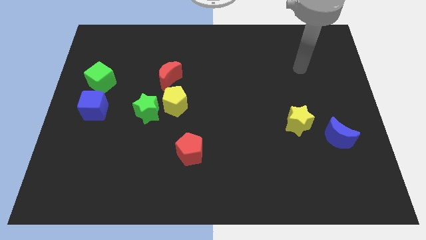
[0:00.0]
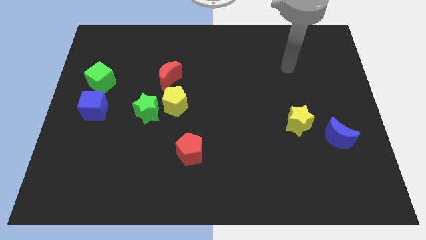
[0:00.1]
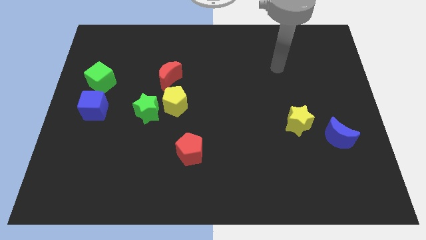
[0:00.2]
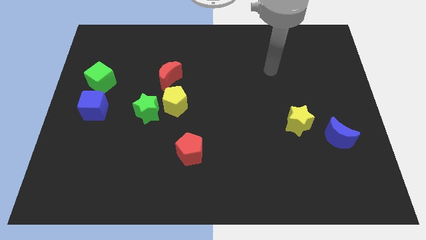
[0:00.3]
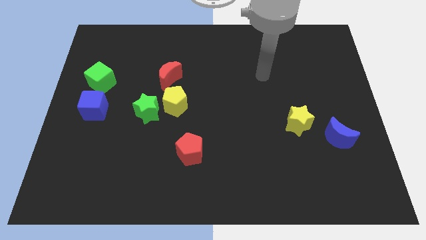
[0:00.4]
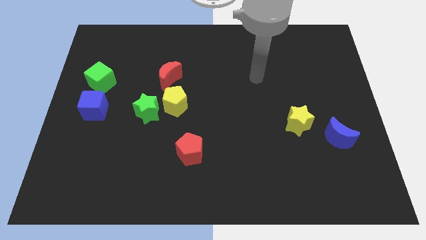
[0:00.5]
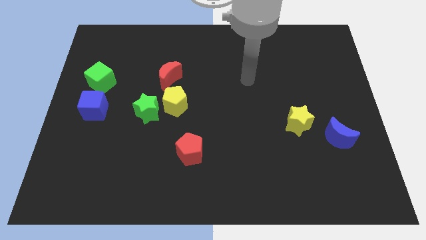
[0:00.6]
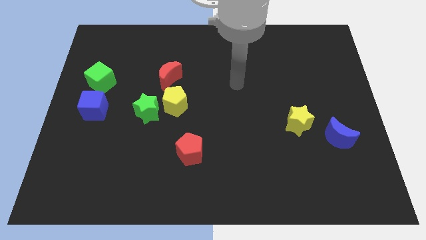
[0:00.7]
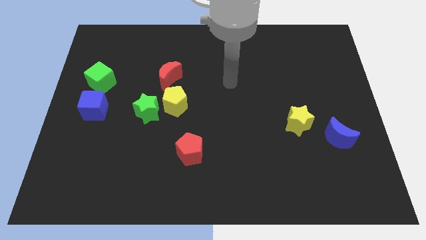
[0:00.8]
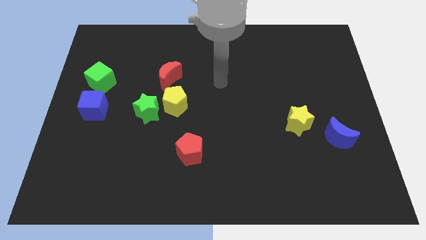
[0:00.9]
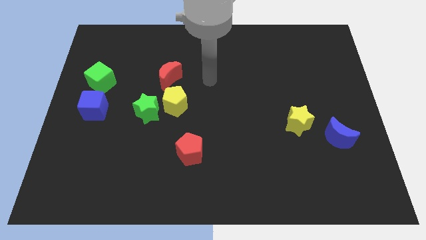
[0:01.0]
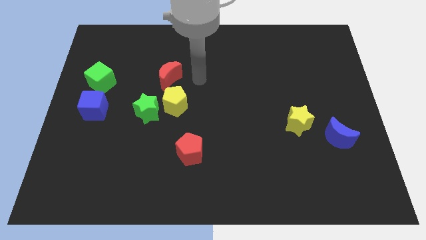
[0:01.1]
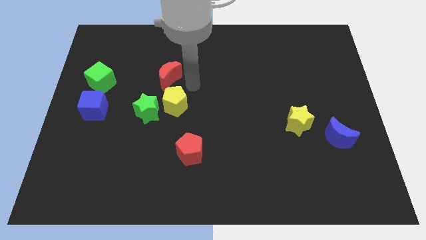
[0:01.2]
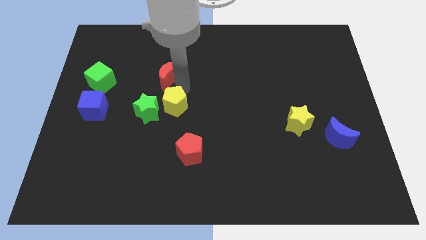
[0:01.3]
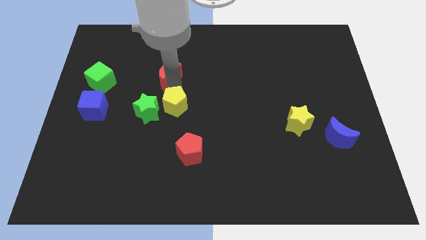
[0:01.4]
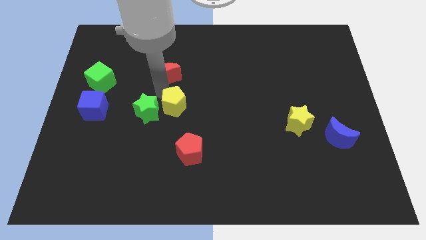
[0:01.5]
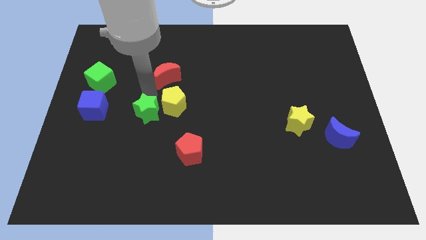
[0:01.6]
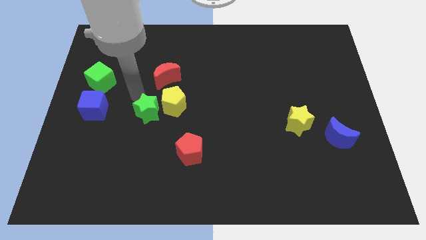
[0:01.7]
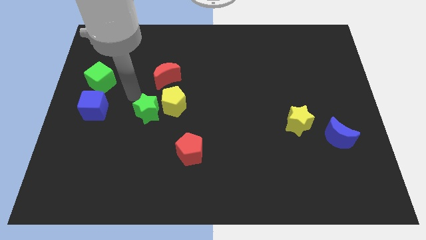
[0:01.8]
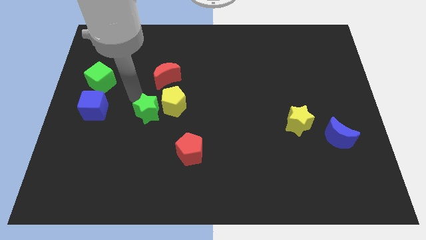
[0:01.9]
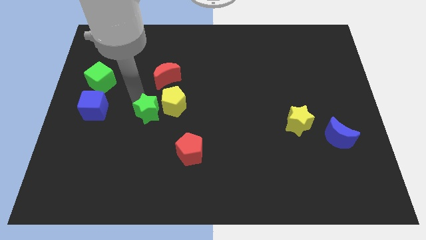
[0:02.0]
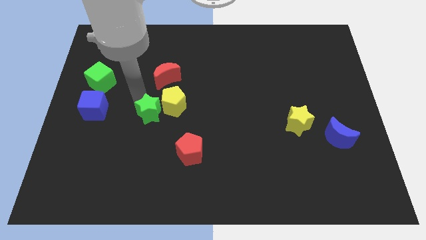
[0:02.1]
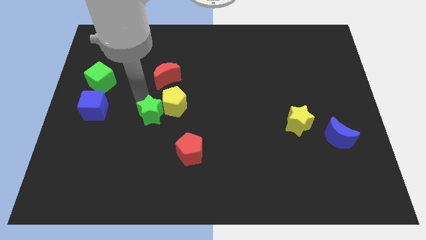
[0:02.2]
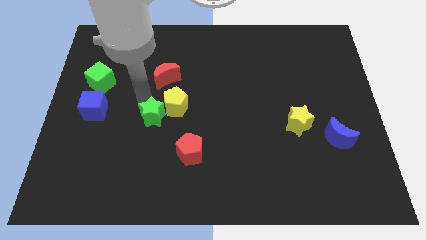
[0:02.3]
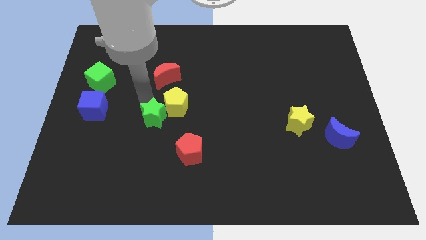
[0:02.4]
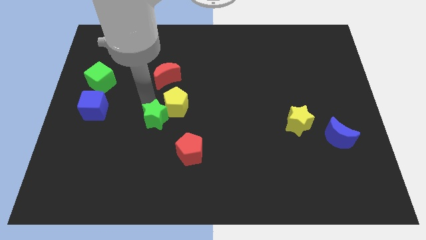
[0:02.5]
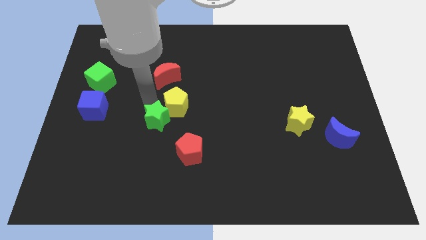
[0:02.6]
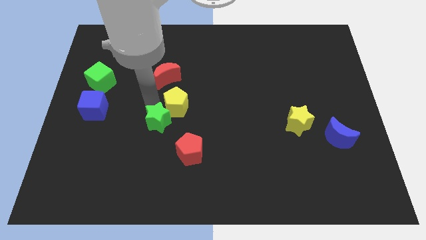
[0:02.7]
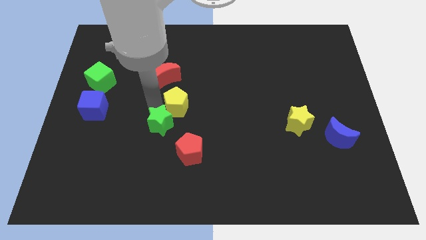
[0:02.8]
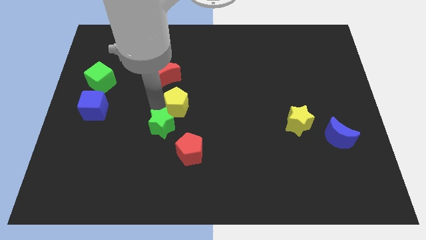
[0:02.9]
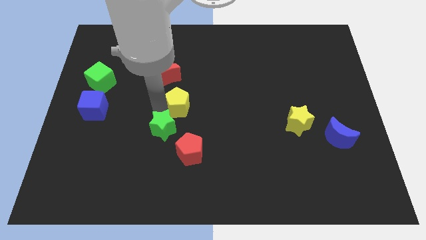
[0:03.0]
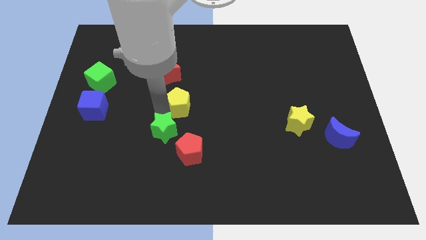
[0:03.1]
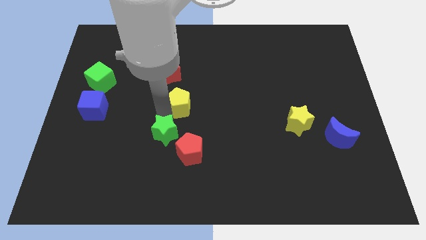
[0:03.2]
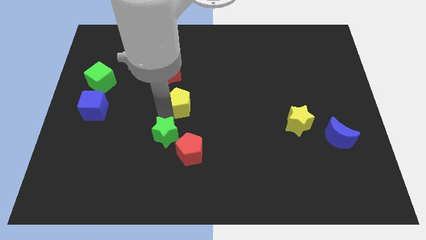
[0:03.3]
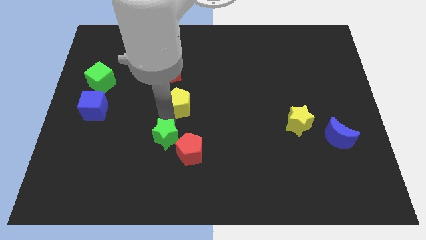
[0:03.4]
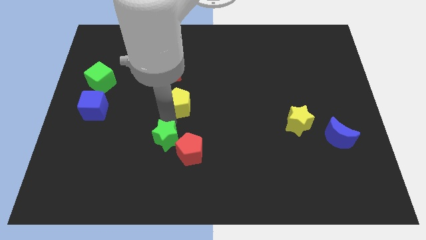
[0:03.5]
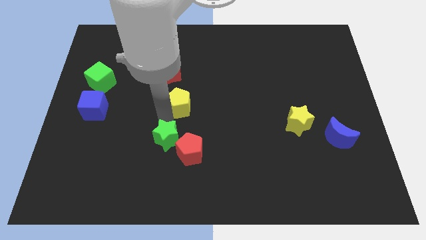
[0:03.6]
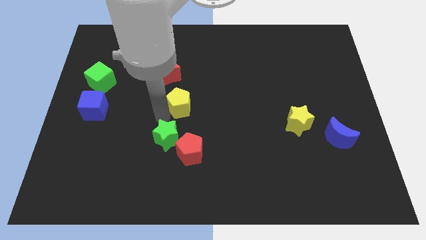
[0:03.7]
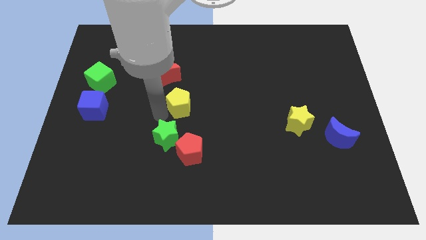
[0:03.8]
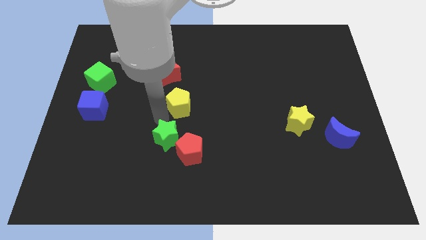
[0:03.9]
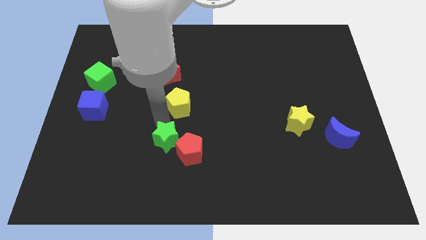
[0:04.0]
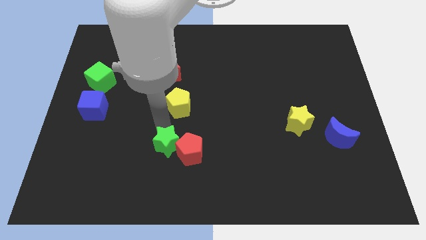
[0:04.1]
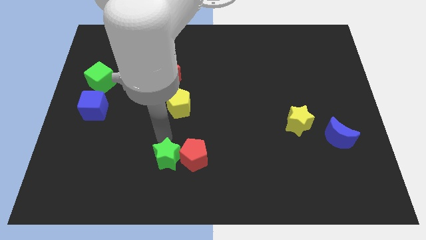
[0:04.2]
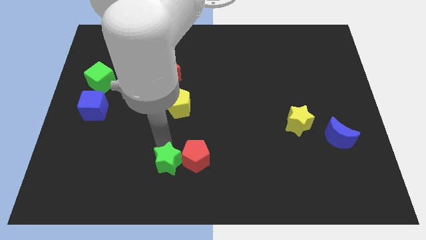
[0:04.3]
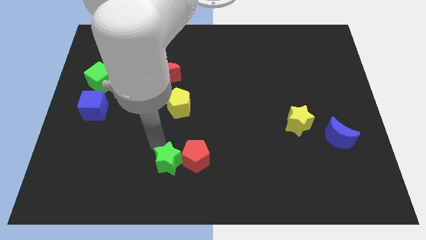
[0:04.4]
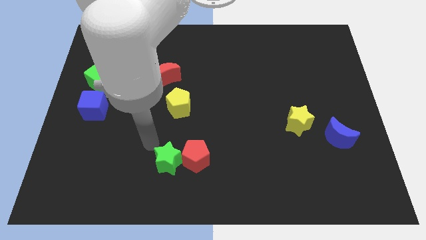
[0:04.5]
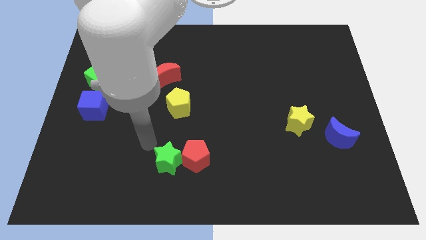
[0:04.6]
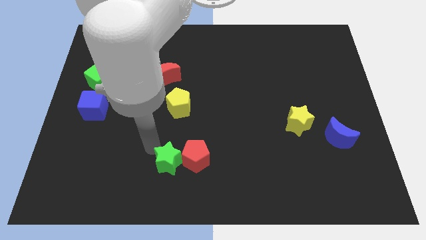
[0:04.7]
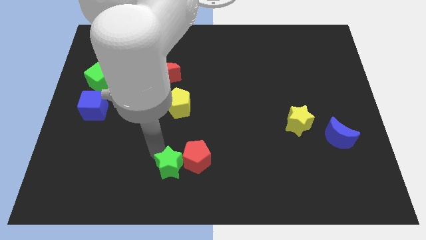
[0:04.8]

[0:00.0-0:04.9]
move the green star to the bottom side

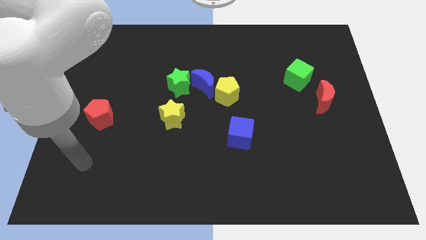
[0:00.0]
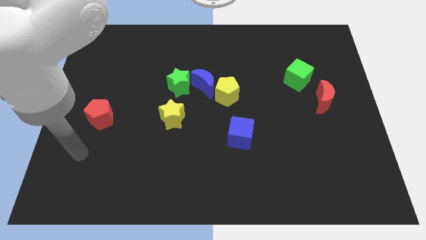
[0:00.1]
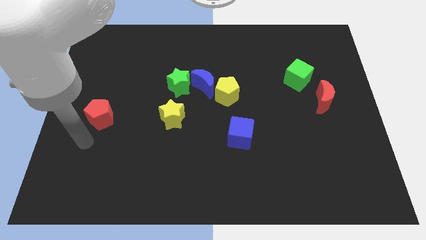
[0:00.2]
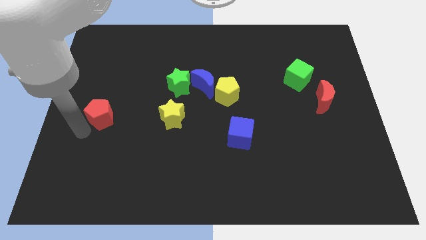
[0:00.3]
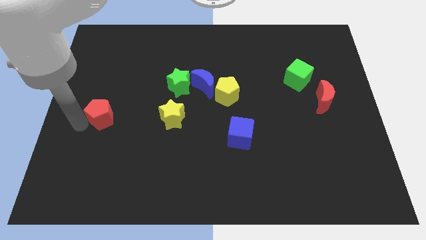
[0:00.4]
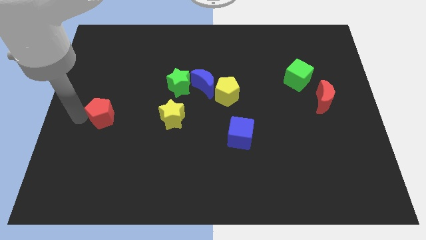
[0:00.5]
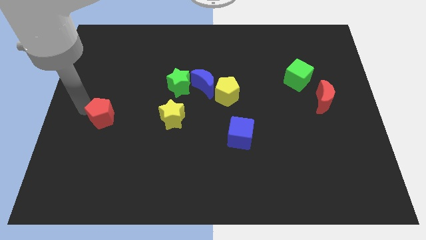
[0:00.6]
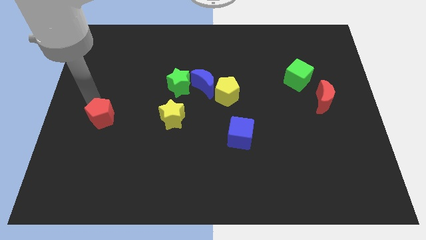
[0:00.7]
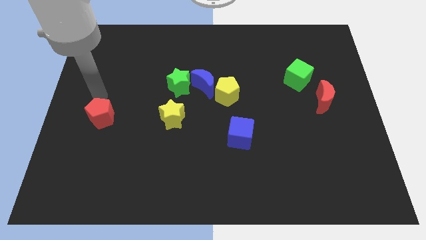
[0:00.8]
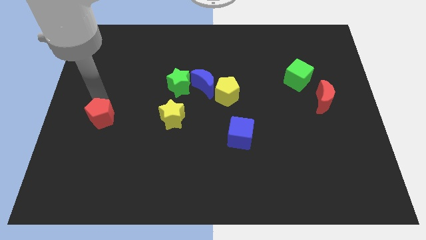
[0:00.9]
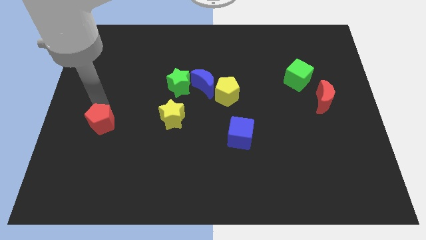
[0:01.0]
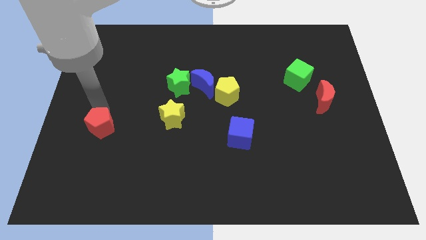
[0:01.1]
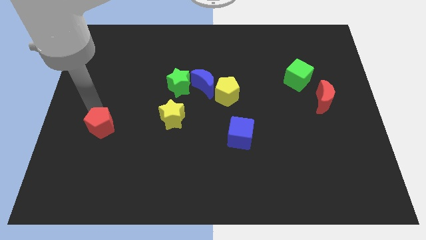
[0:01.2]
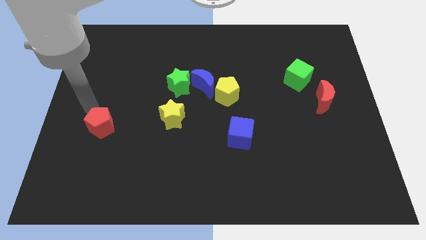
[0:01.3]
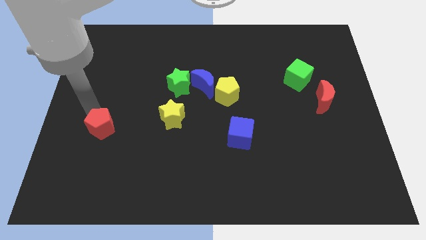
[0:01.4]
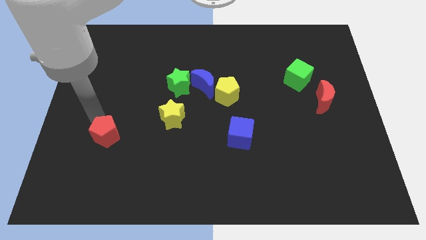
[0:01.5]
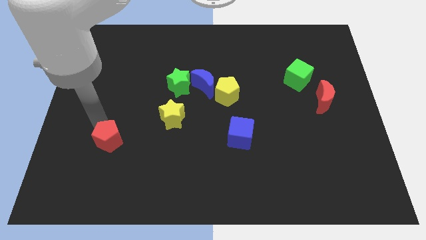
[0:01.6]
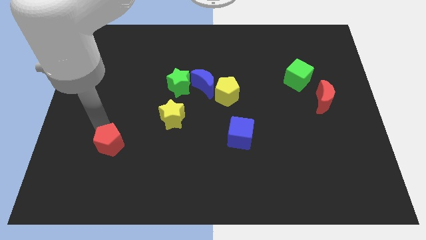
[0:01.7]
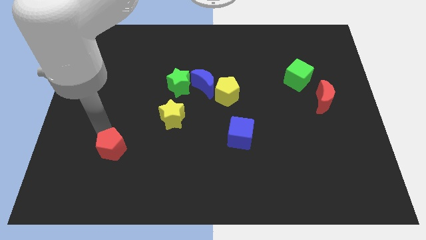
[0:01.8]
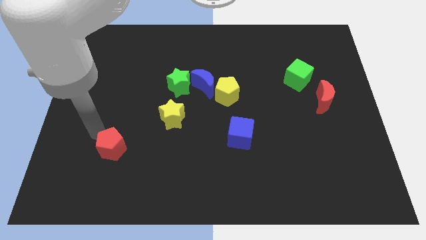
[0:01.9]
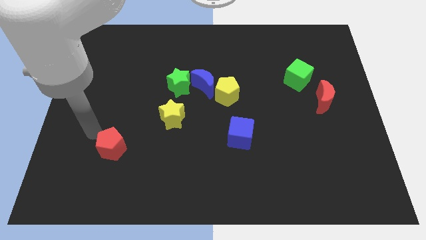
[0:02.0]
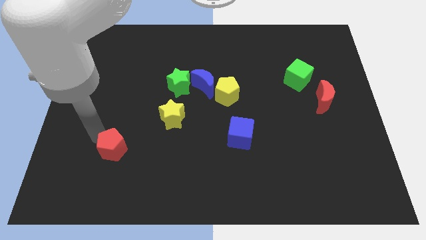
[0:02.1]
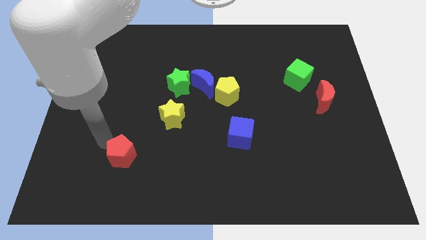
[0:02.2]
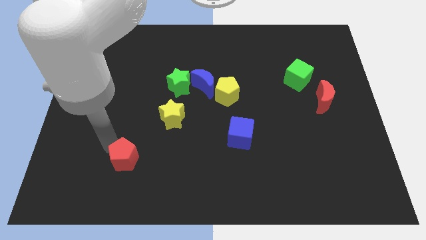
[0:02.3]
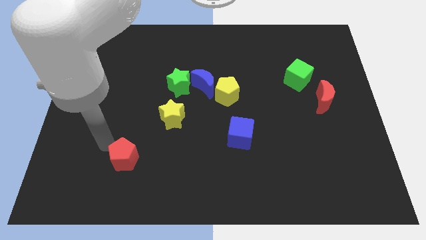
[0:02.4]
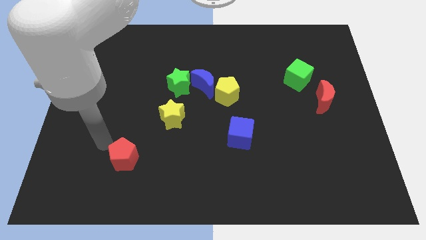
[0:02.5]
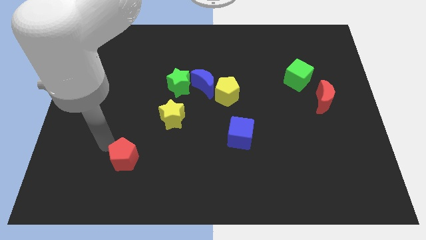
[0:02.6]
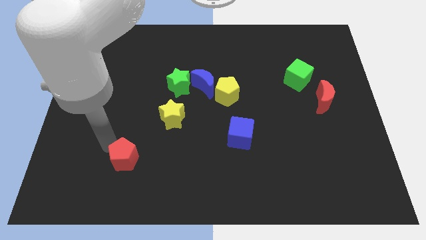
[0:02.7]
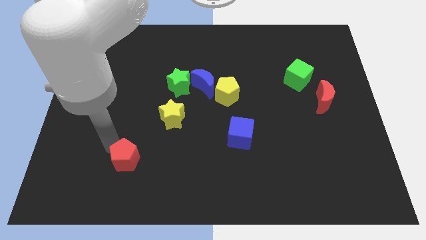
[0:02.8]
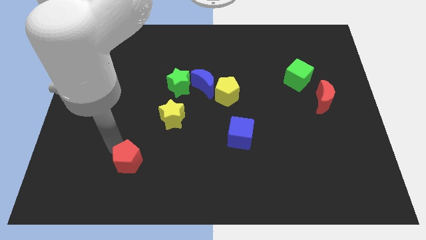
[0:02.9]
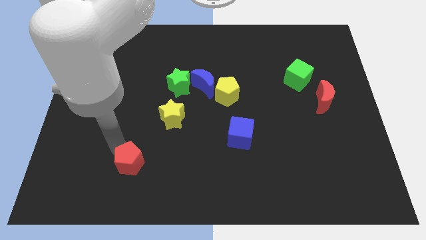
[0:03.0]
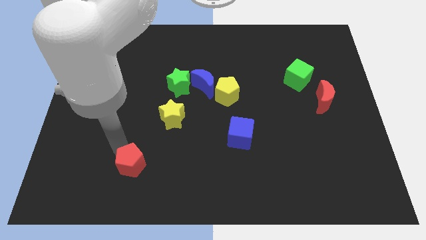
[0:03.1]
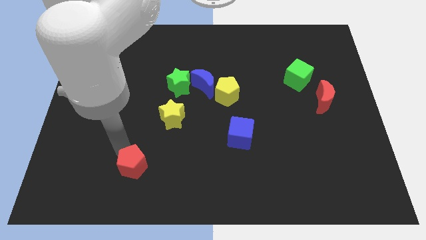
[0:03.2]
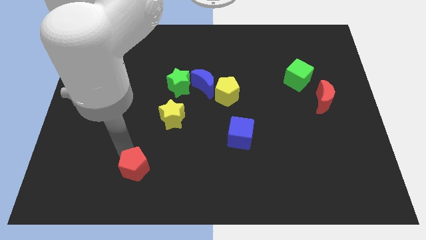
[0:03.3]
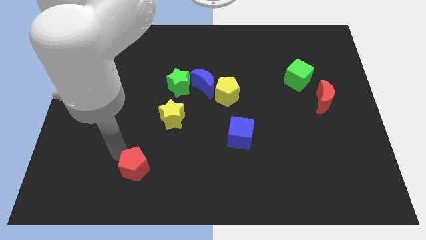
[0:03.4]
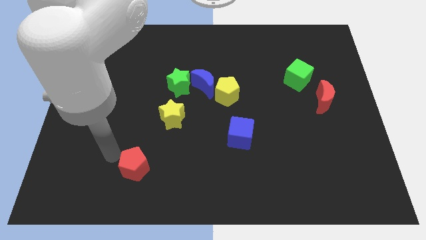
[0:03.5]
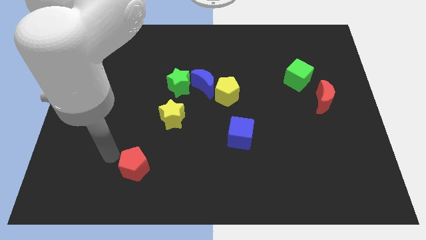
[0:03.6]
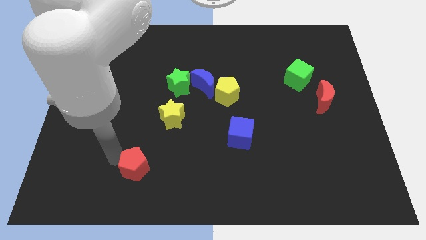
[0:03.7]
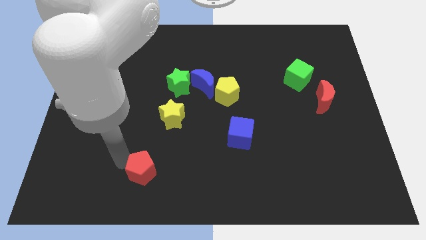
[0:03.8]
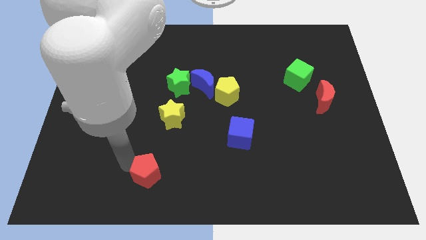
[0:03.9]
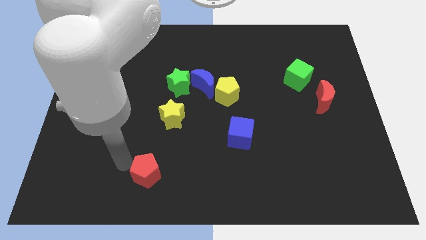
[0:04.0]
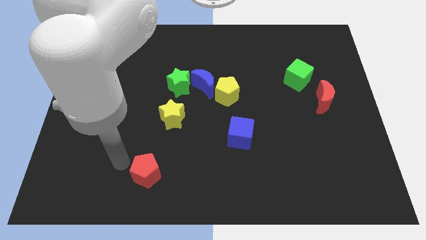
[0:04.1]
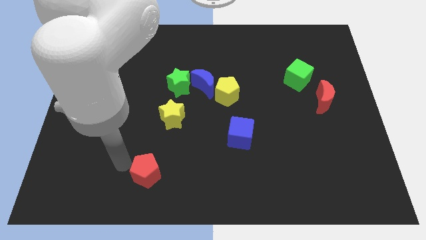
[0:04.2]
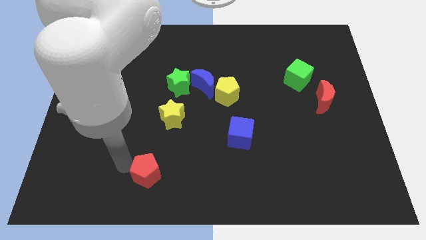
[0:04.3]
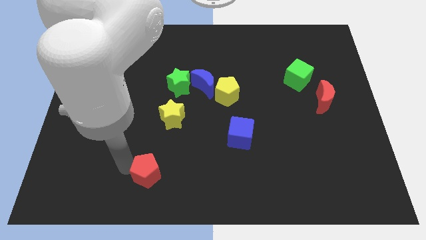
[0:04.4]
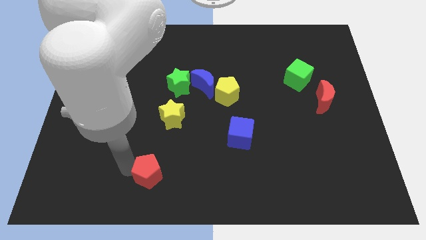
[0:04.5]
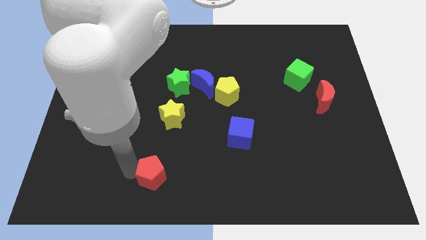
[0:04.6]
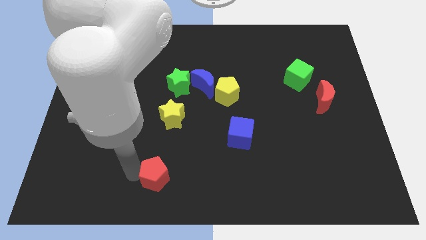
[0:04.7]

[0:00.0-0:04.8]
put the red pentagon to the bottom side
